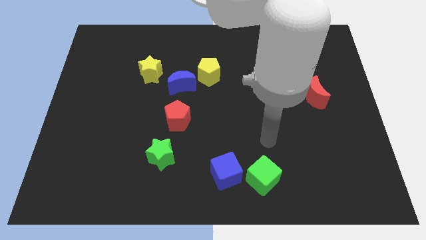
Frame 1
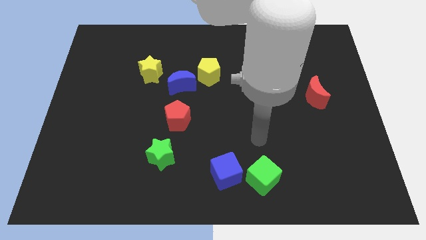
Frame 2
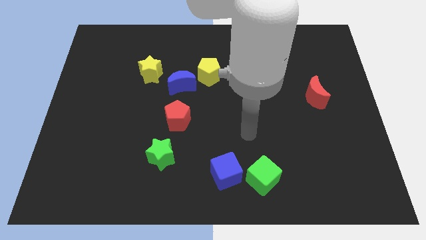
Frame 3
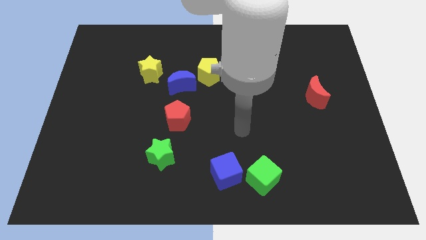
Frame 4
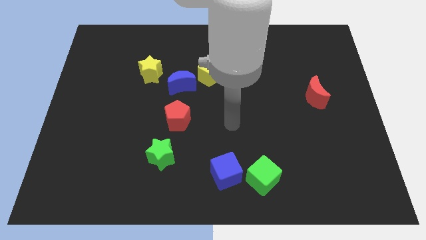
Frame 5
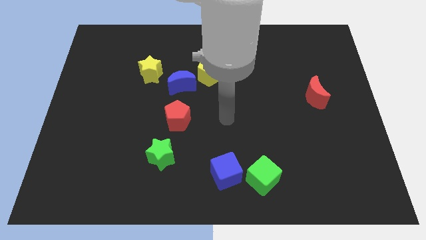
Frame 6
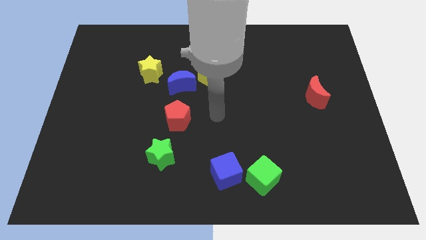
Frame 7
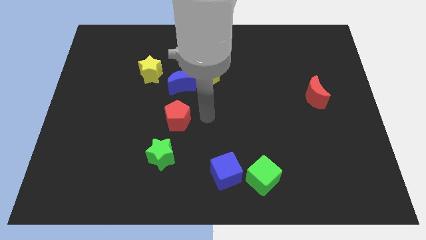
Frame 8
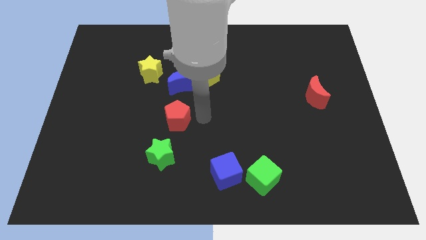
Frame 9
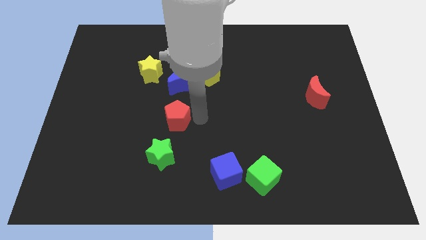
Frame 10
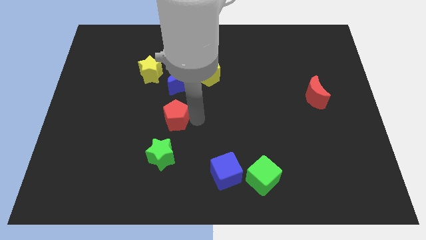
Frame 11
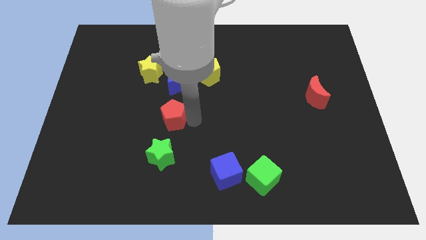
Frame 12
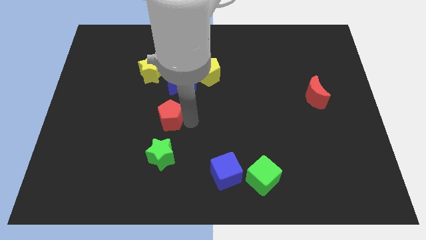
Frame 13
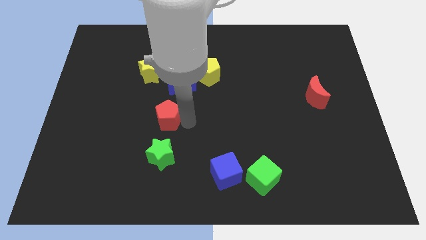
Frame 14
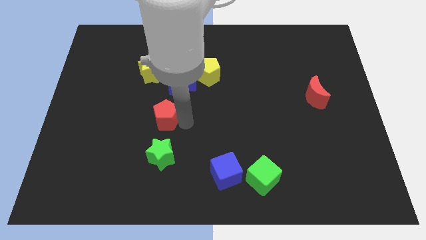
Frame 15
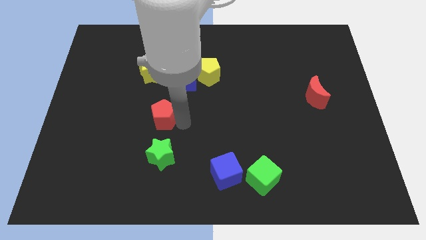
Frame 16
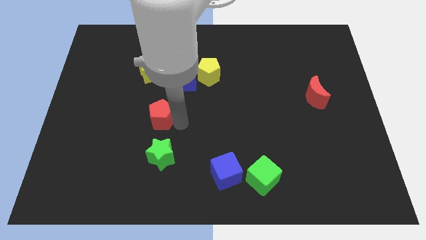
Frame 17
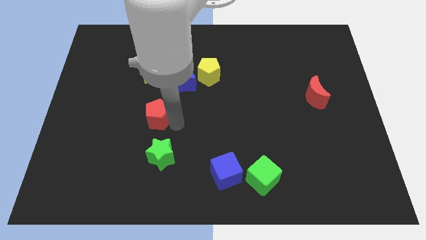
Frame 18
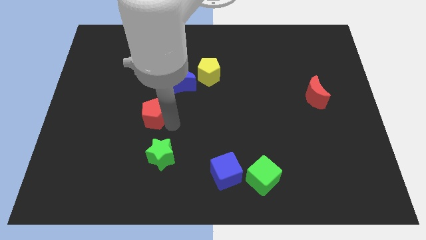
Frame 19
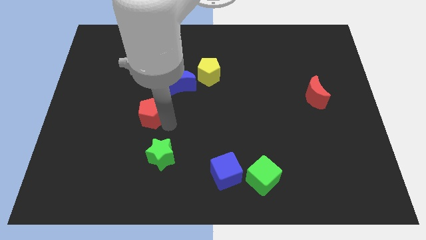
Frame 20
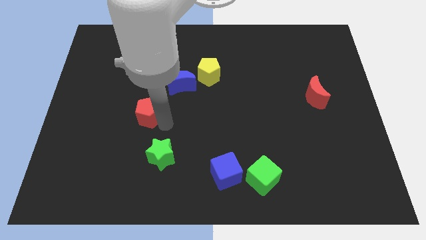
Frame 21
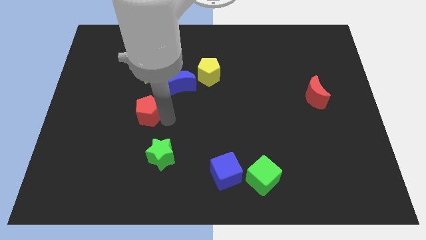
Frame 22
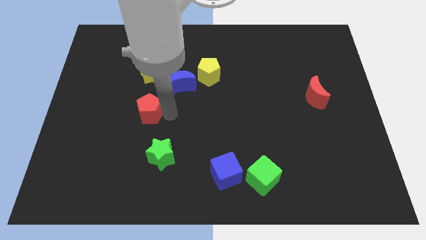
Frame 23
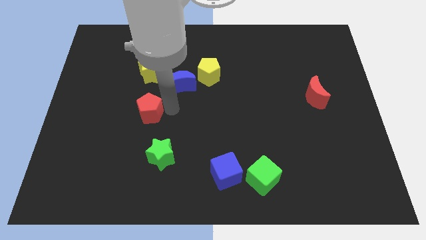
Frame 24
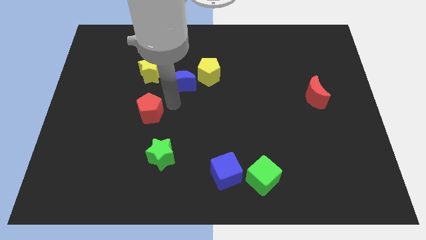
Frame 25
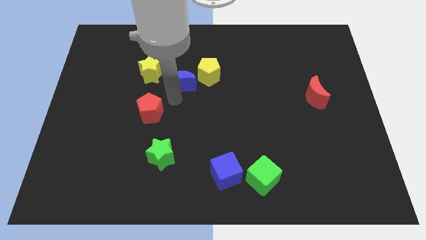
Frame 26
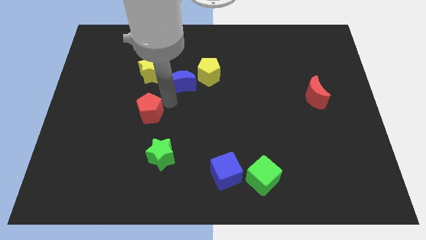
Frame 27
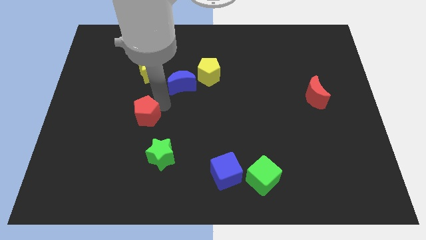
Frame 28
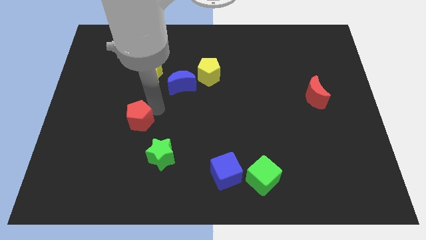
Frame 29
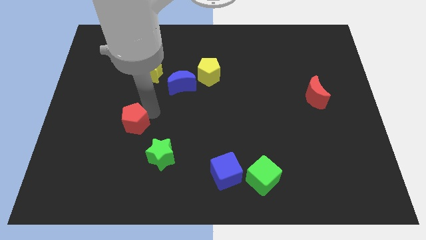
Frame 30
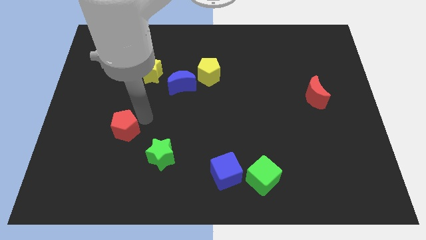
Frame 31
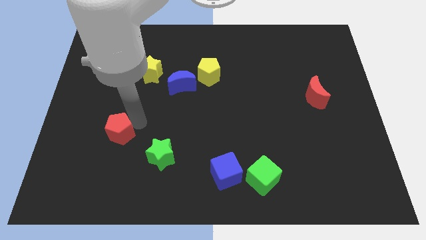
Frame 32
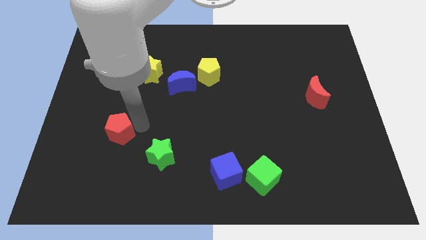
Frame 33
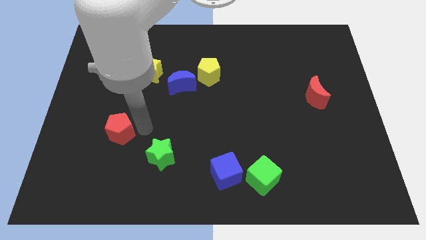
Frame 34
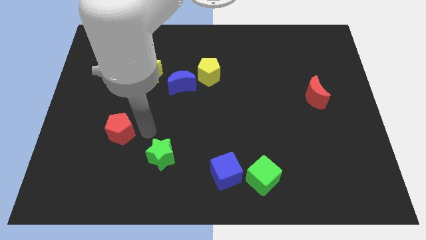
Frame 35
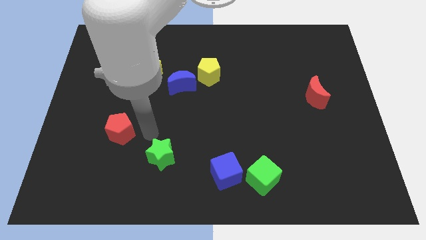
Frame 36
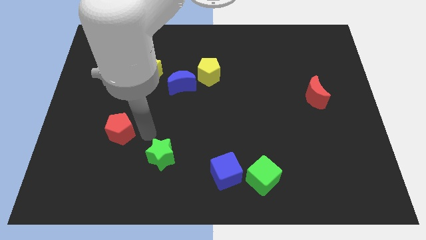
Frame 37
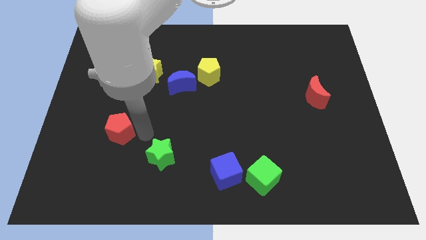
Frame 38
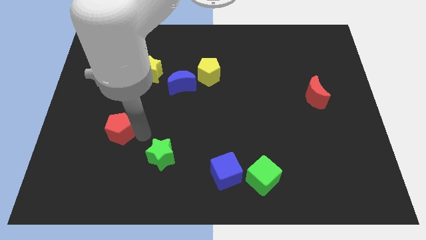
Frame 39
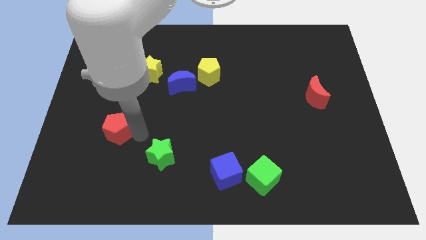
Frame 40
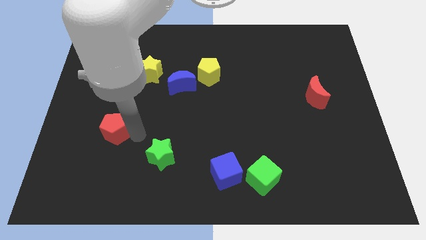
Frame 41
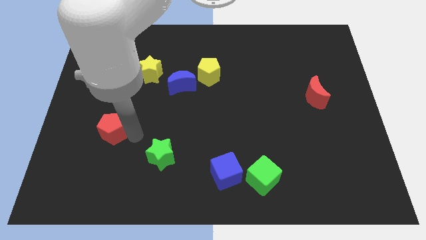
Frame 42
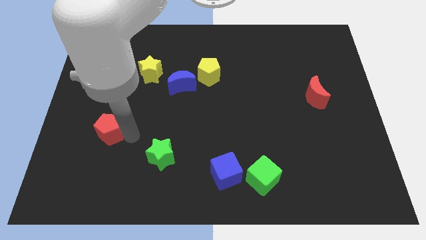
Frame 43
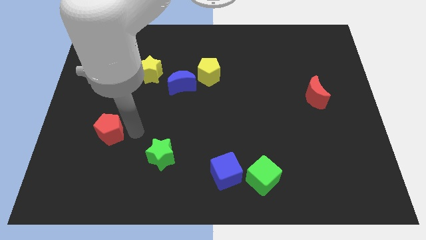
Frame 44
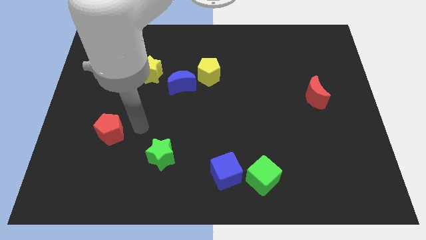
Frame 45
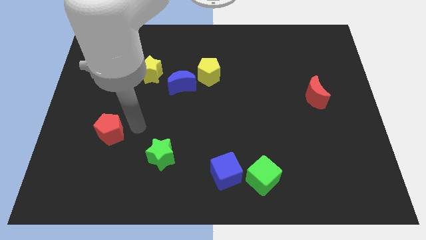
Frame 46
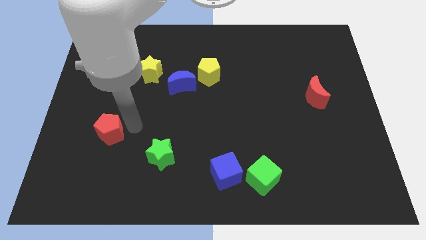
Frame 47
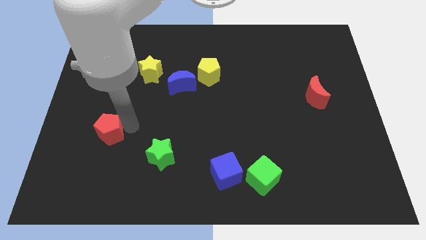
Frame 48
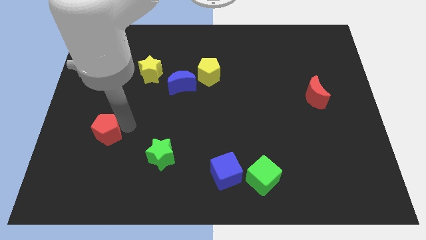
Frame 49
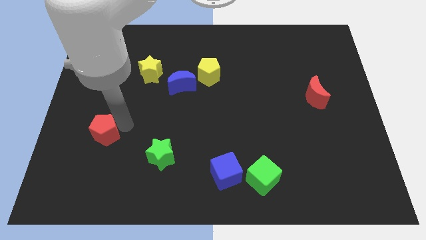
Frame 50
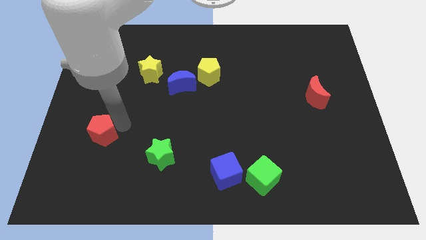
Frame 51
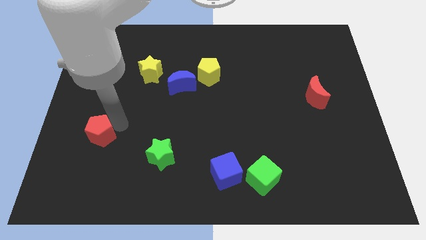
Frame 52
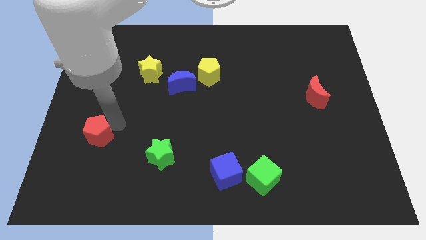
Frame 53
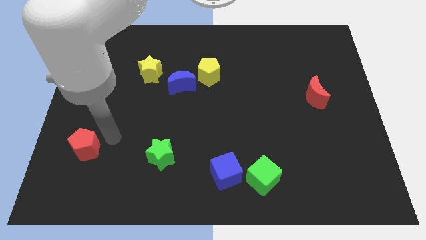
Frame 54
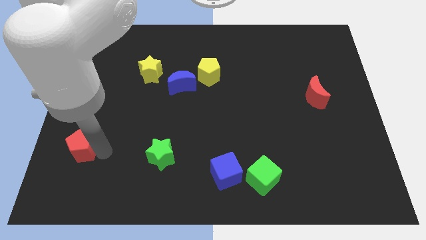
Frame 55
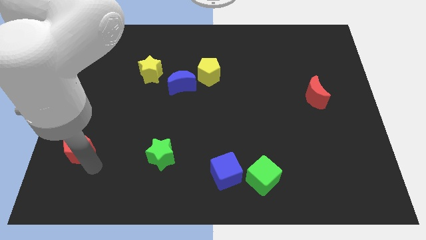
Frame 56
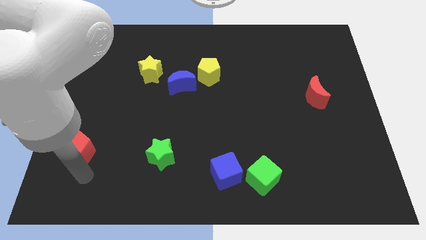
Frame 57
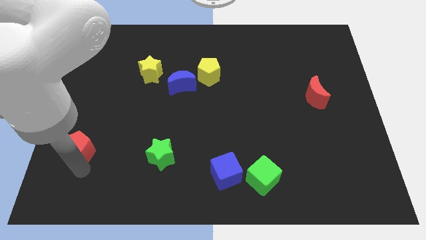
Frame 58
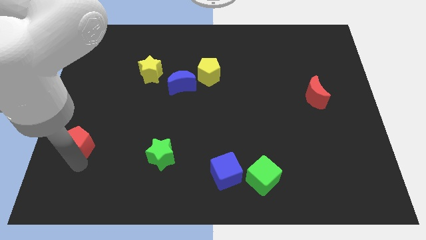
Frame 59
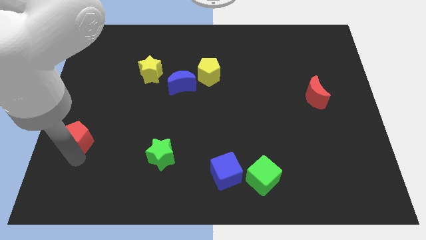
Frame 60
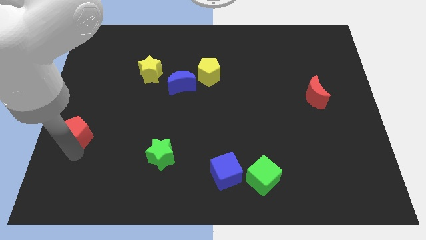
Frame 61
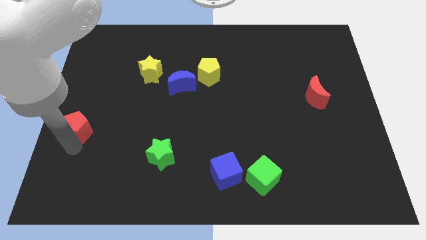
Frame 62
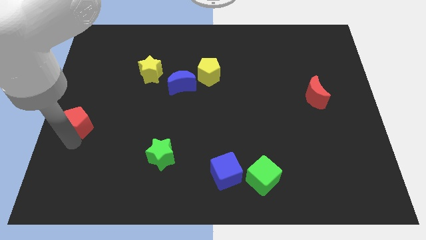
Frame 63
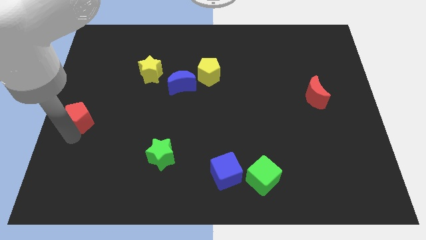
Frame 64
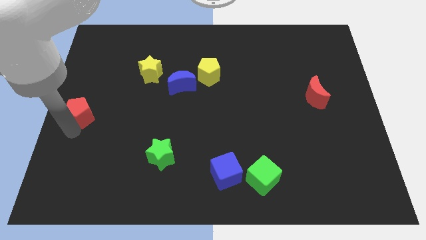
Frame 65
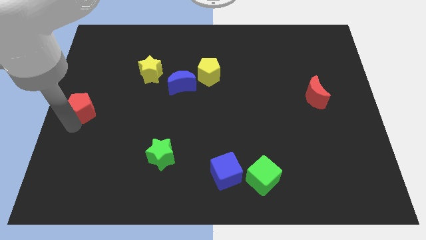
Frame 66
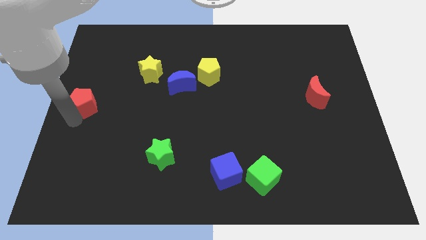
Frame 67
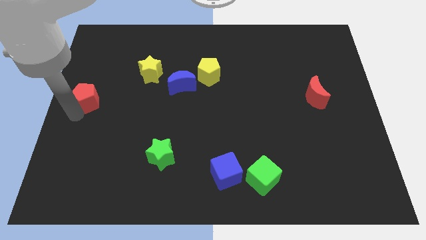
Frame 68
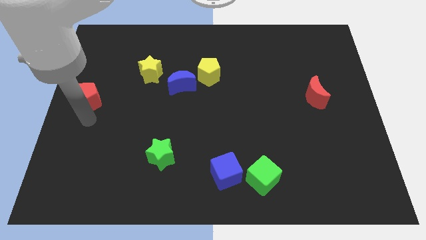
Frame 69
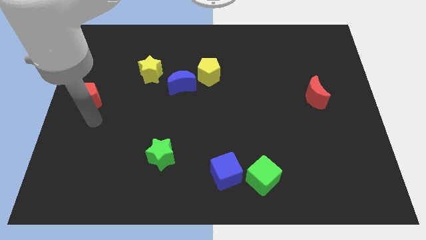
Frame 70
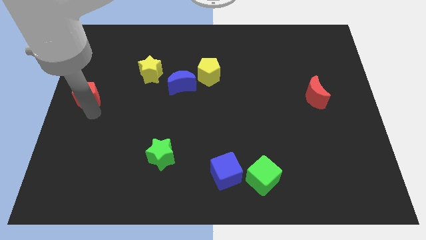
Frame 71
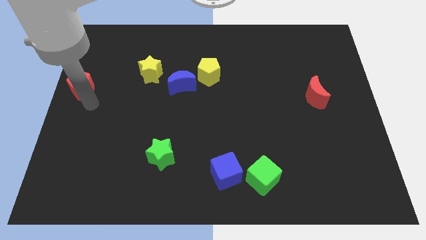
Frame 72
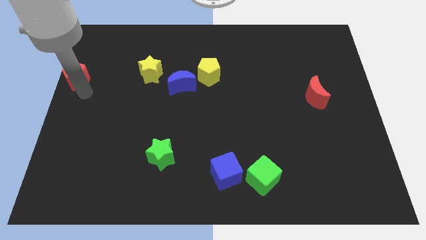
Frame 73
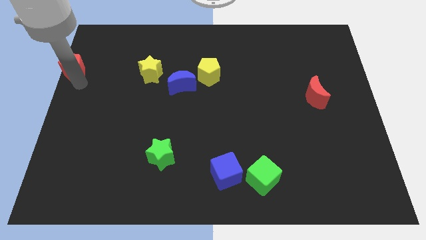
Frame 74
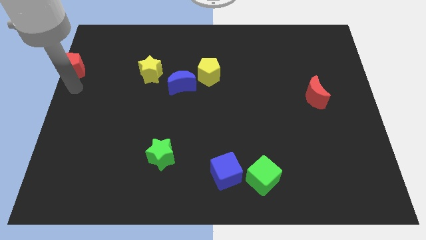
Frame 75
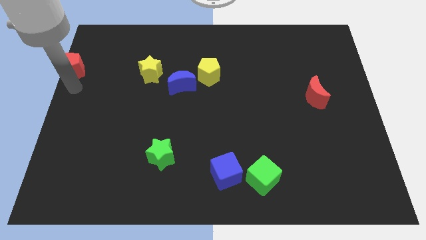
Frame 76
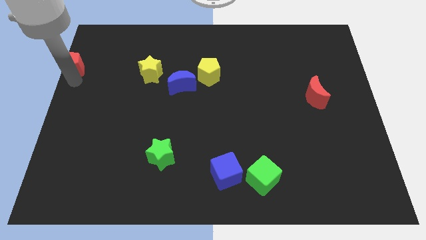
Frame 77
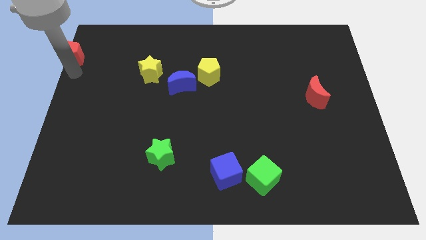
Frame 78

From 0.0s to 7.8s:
put the red pentagon to the top left of the board
